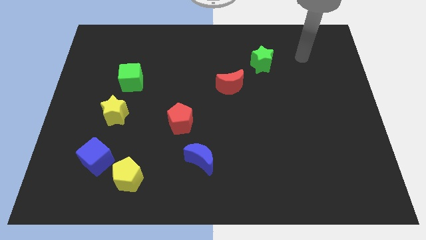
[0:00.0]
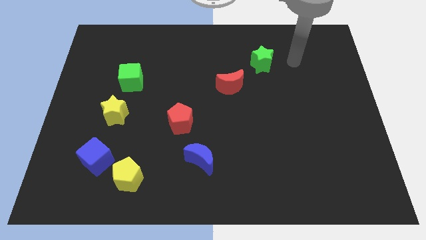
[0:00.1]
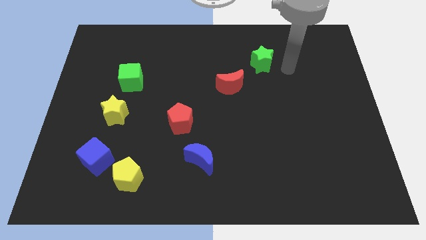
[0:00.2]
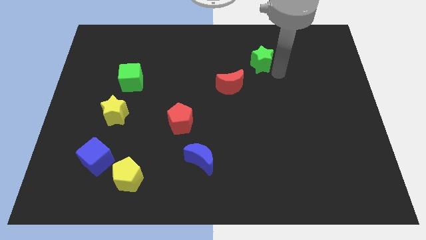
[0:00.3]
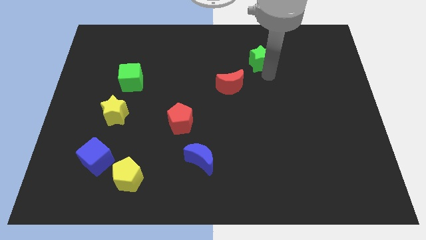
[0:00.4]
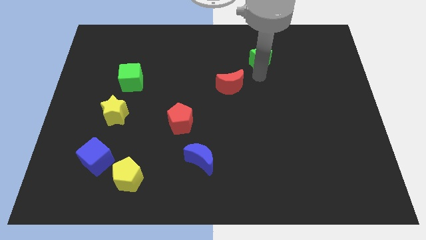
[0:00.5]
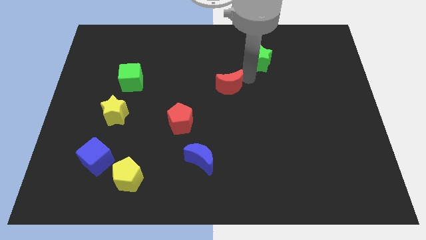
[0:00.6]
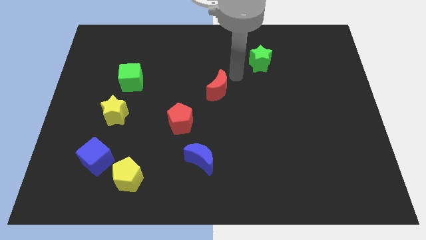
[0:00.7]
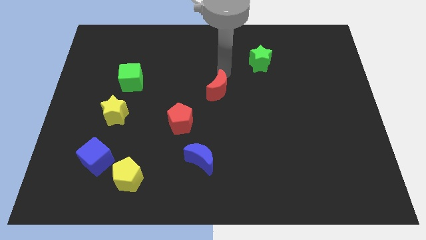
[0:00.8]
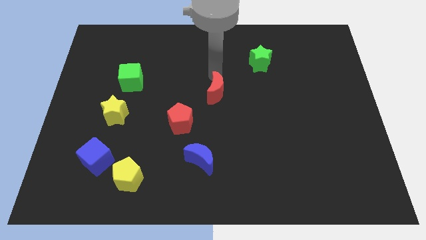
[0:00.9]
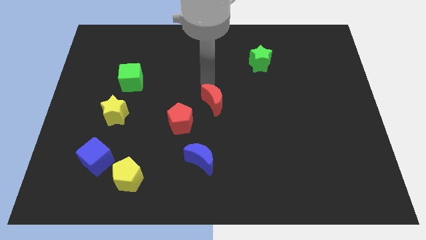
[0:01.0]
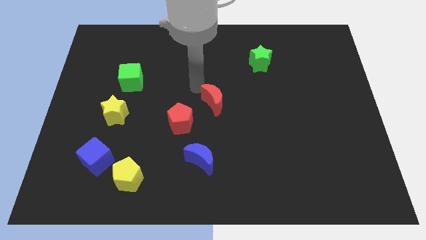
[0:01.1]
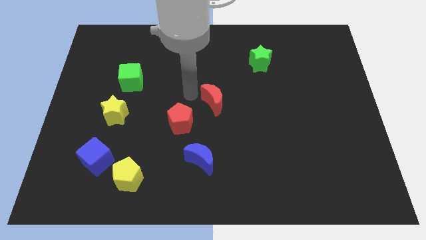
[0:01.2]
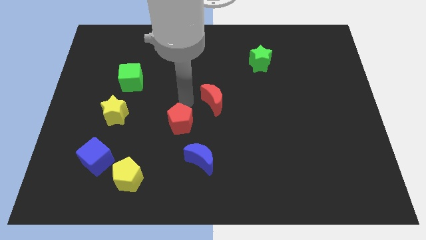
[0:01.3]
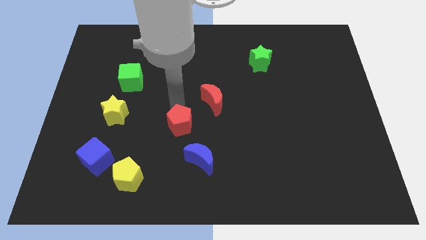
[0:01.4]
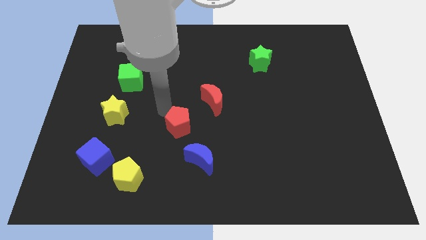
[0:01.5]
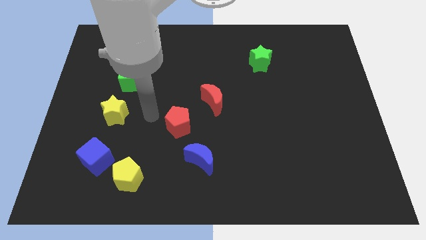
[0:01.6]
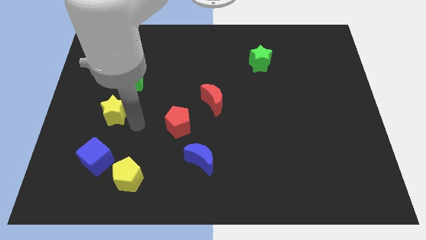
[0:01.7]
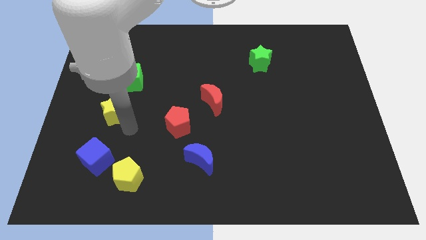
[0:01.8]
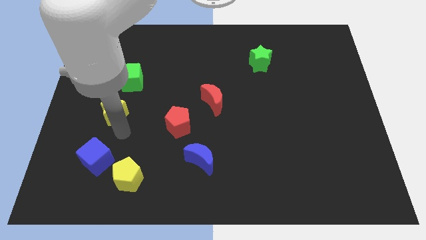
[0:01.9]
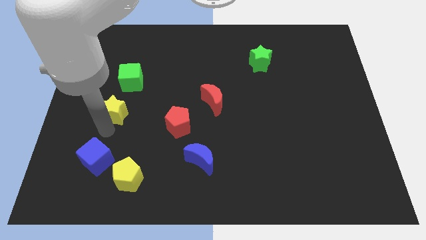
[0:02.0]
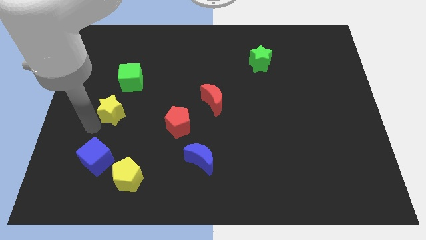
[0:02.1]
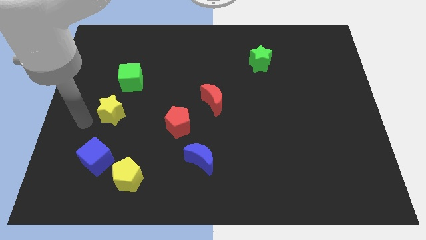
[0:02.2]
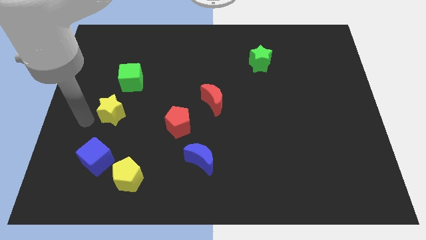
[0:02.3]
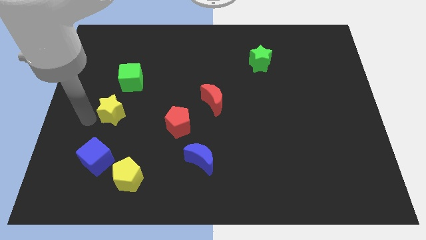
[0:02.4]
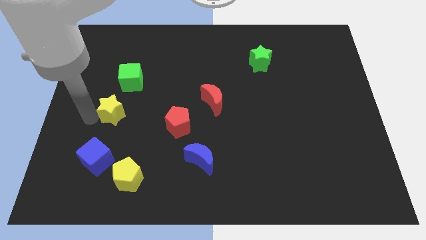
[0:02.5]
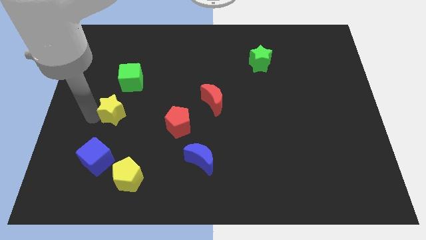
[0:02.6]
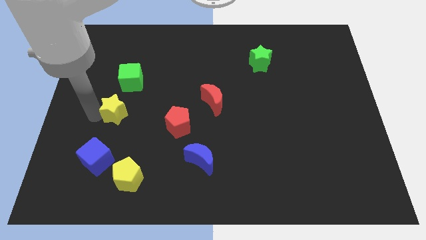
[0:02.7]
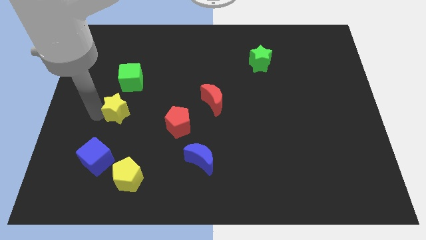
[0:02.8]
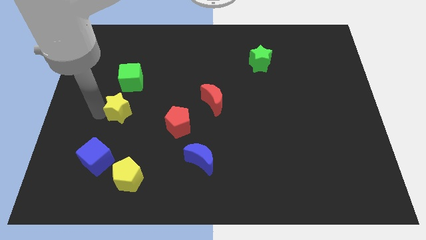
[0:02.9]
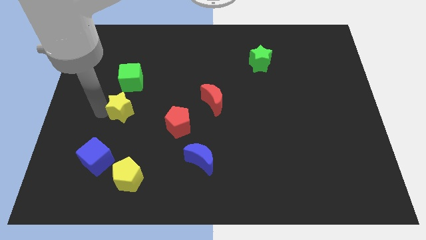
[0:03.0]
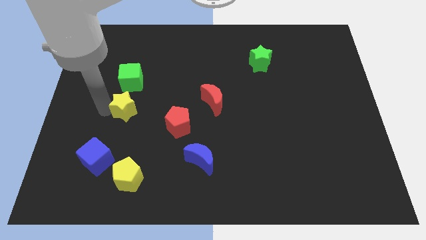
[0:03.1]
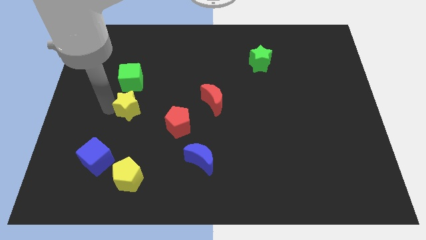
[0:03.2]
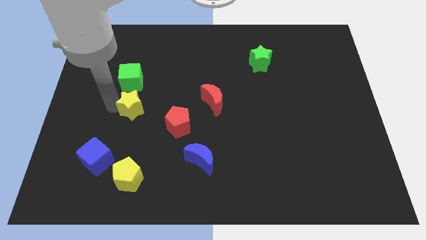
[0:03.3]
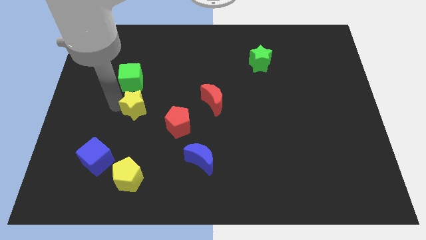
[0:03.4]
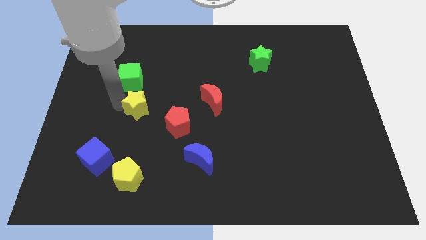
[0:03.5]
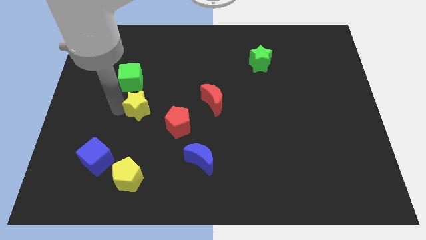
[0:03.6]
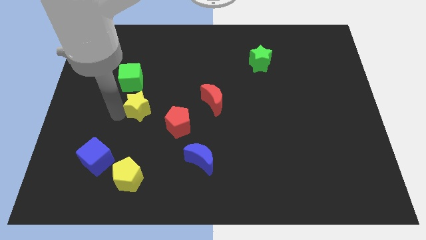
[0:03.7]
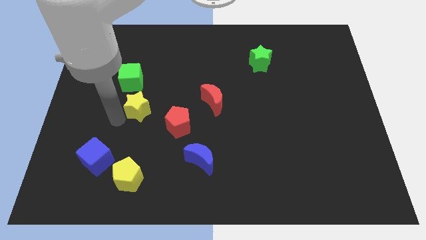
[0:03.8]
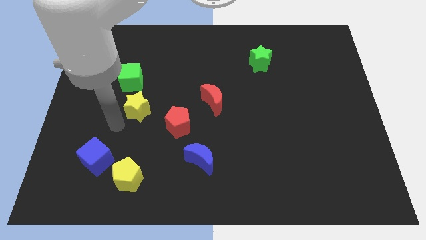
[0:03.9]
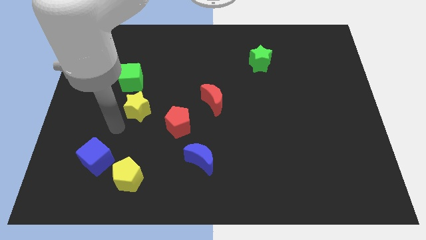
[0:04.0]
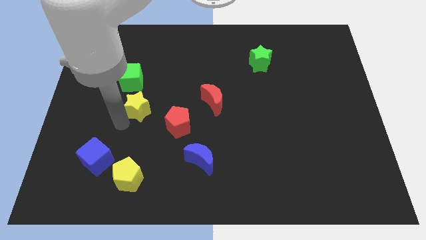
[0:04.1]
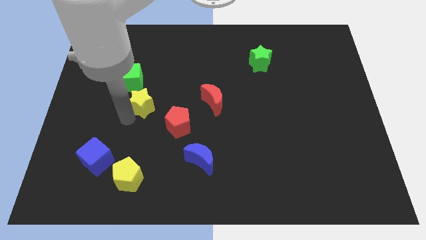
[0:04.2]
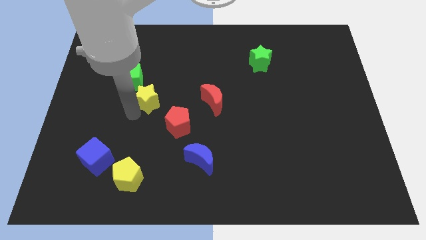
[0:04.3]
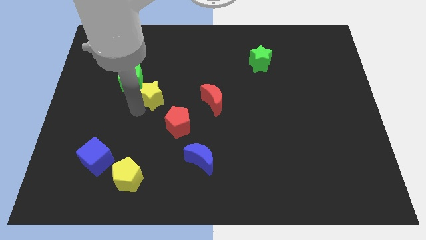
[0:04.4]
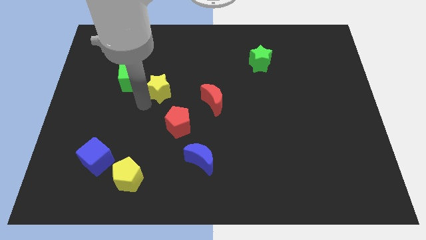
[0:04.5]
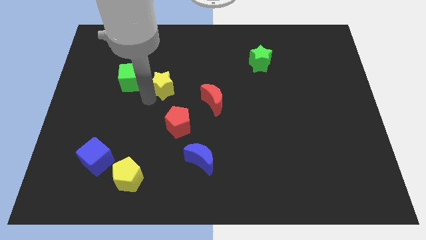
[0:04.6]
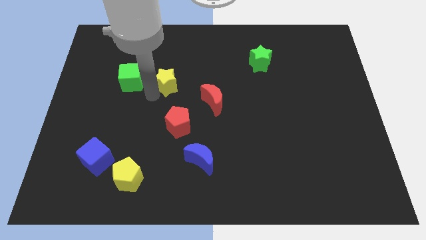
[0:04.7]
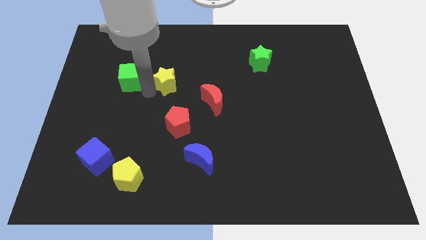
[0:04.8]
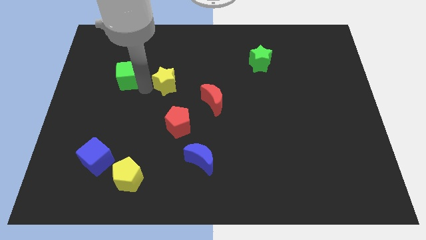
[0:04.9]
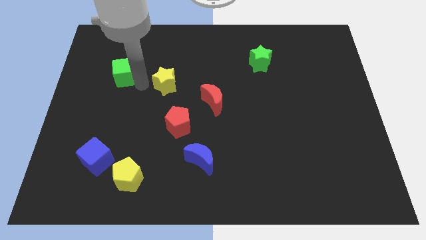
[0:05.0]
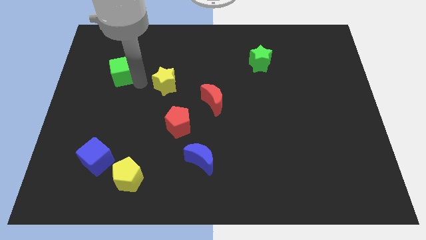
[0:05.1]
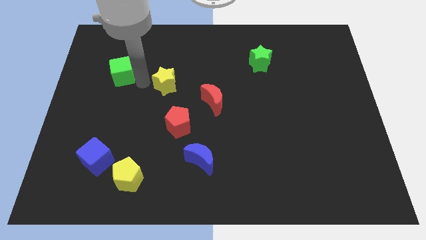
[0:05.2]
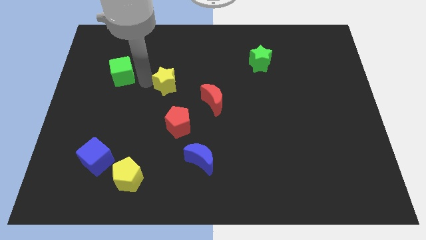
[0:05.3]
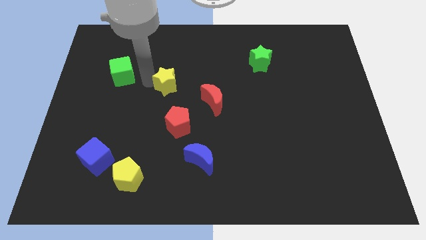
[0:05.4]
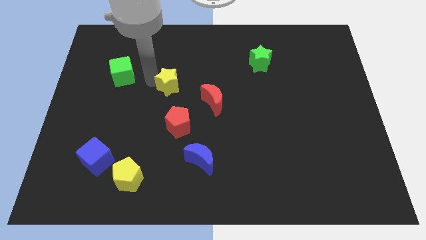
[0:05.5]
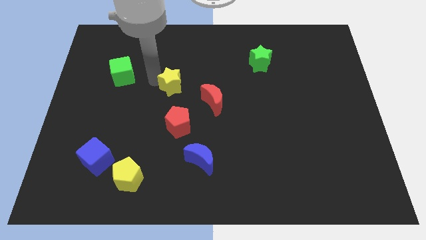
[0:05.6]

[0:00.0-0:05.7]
put the yellow star to the top left side of the red moon
